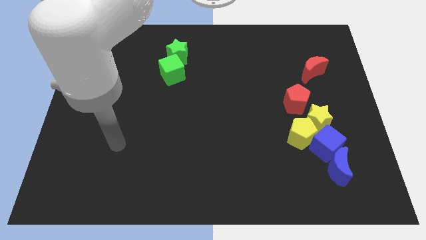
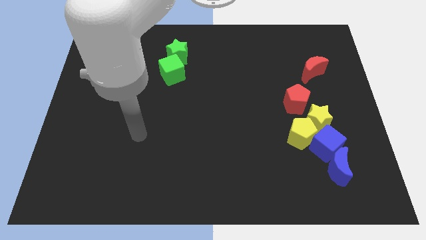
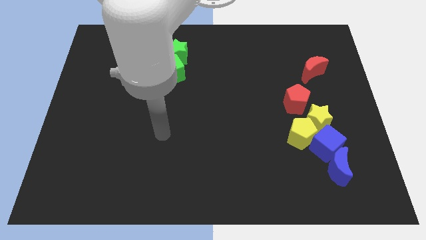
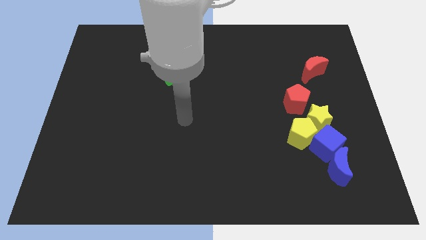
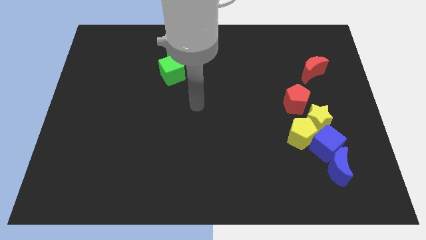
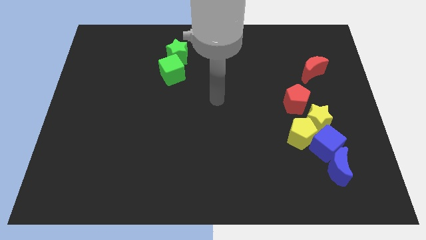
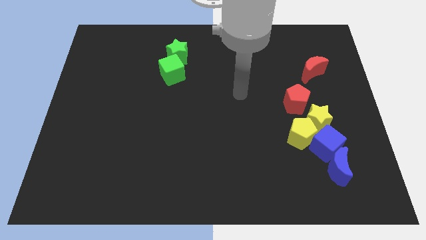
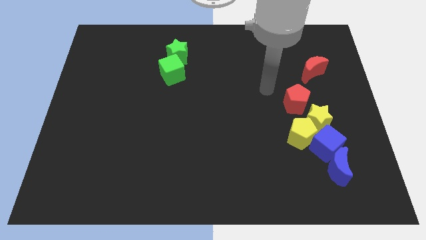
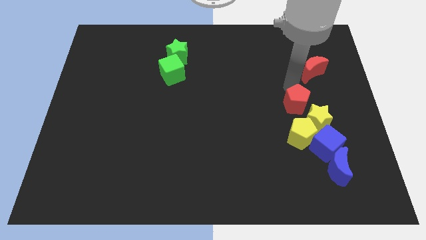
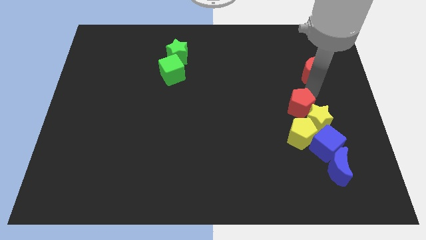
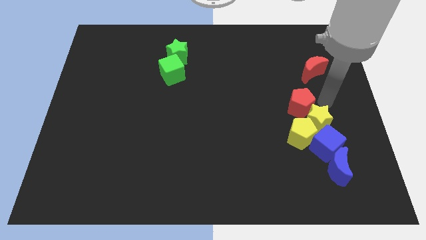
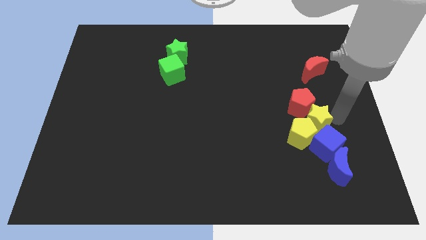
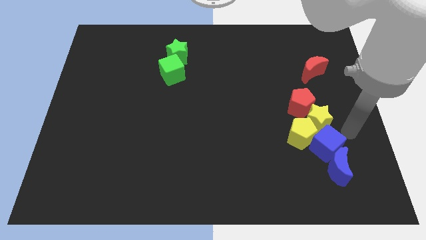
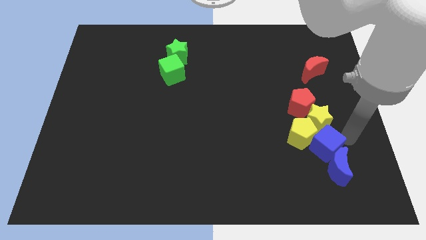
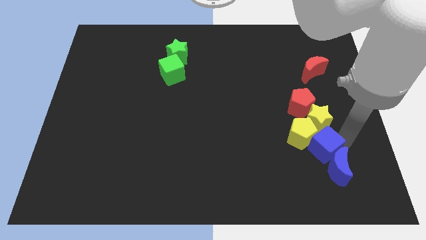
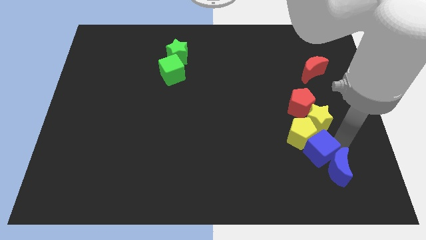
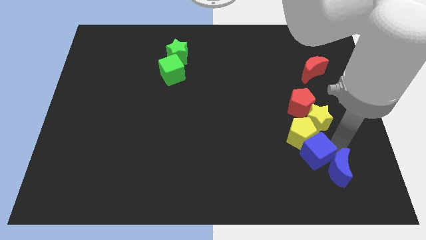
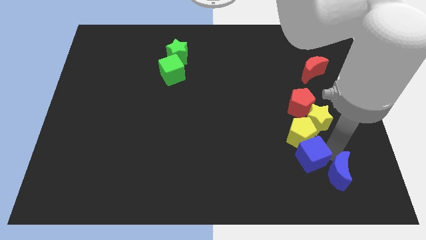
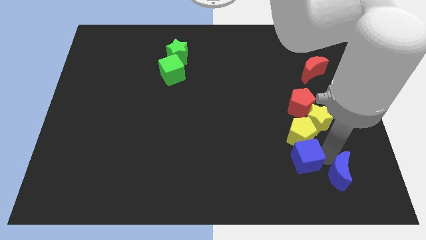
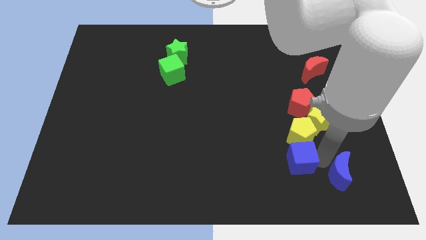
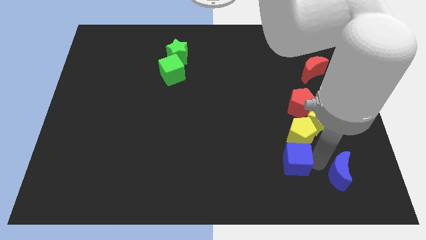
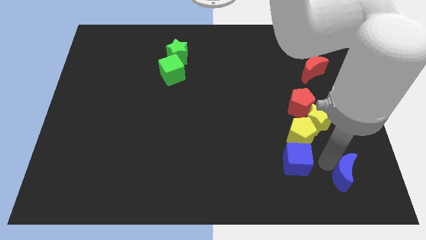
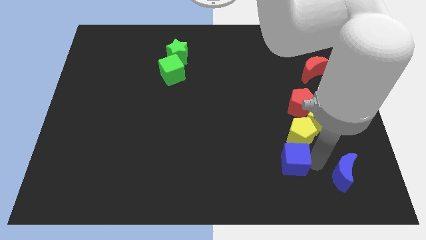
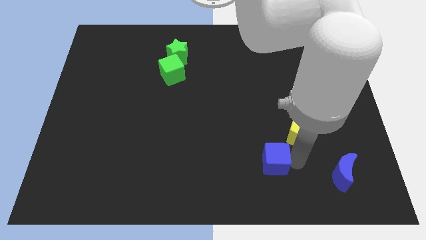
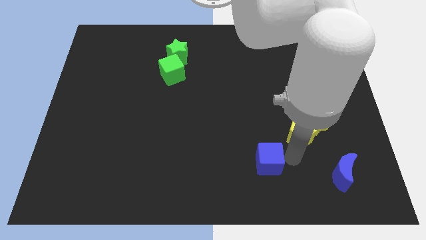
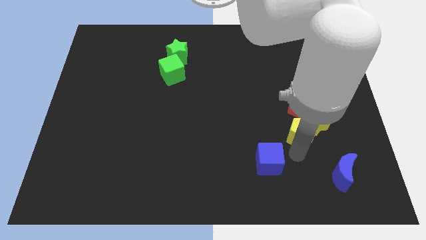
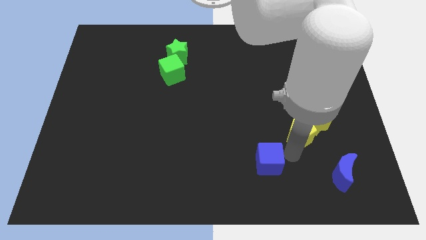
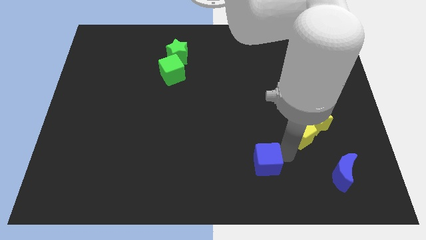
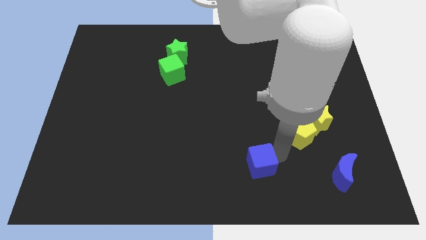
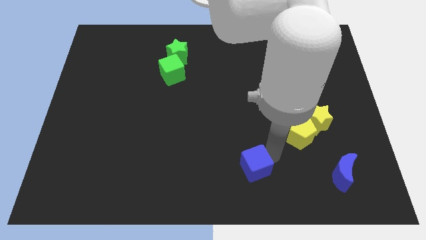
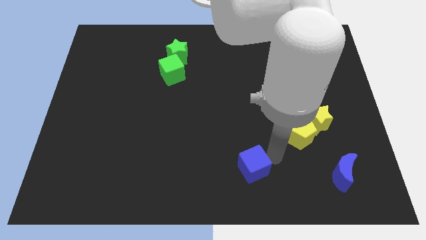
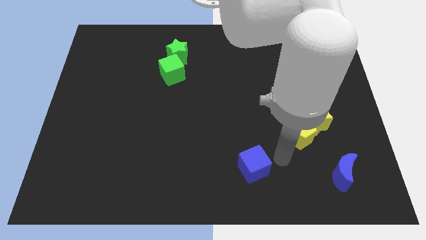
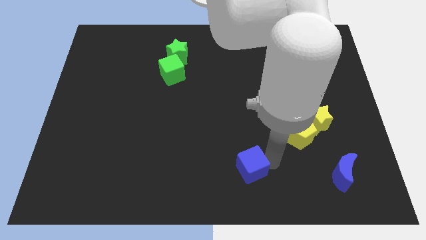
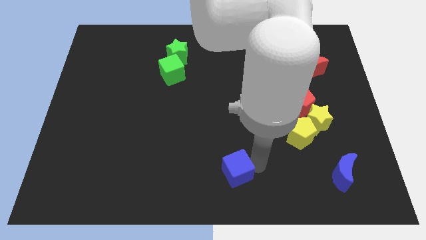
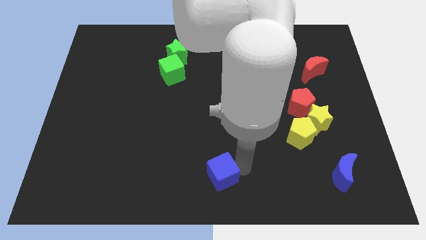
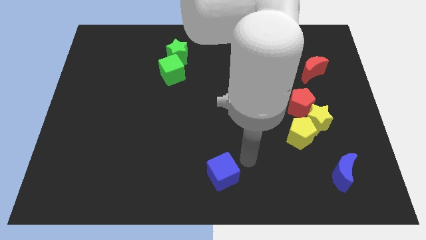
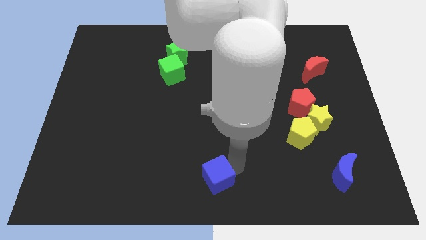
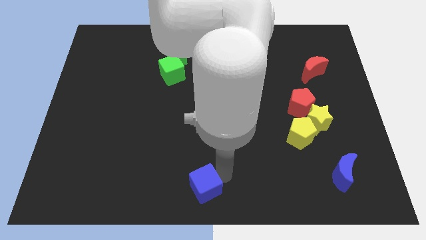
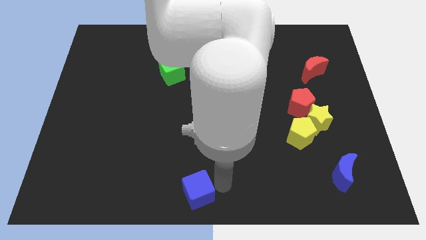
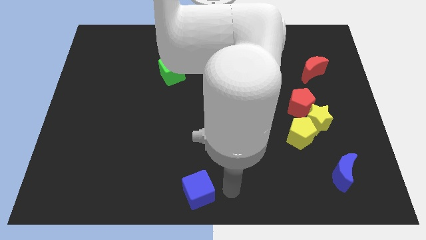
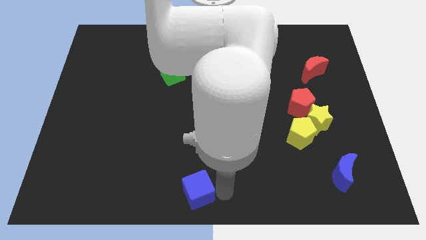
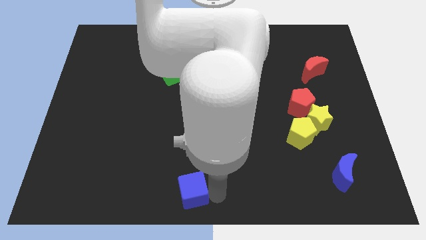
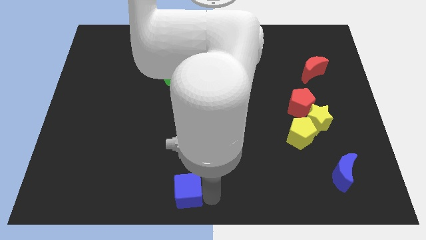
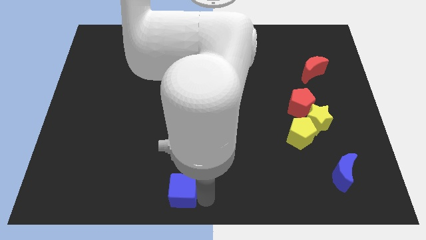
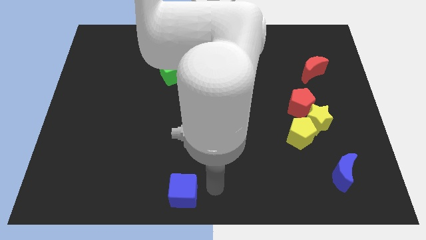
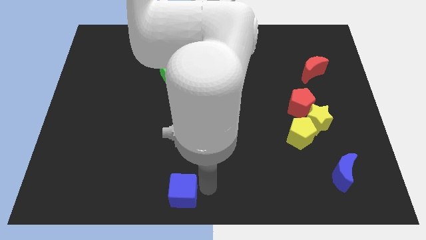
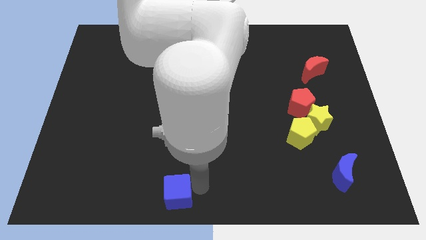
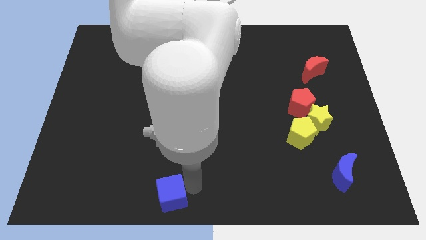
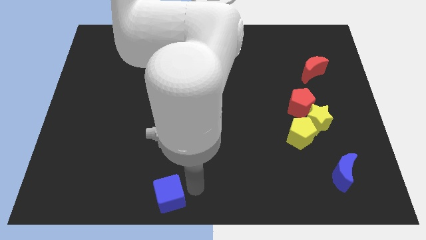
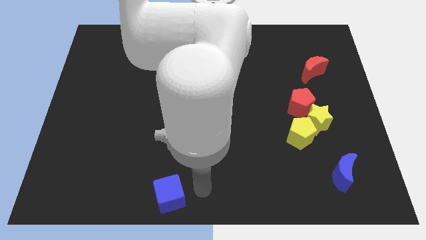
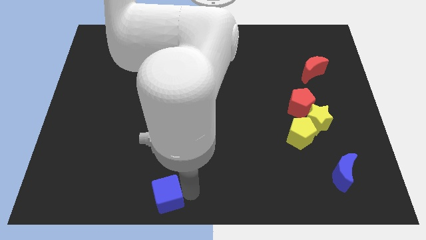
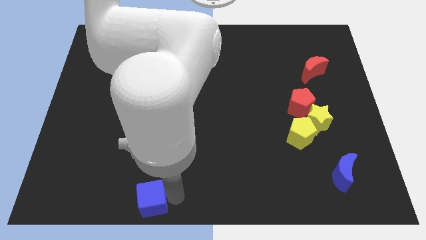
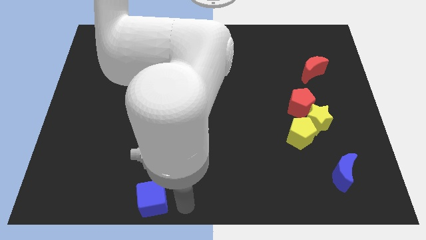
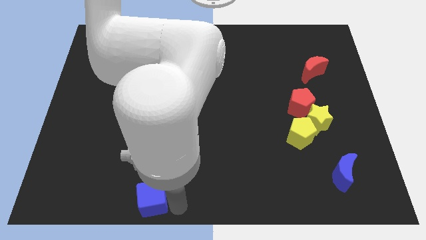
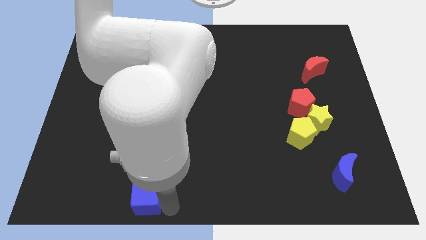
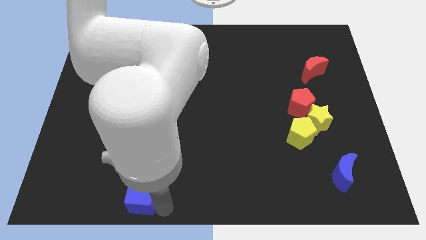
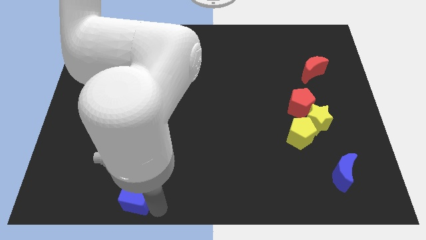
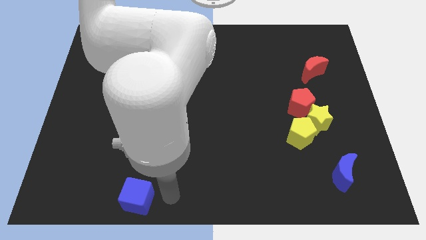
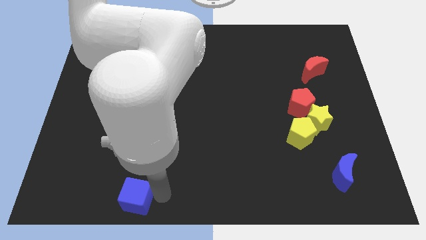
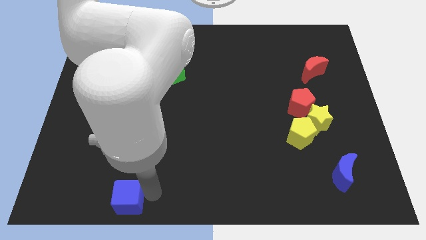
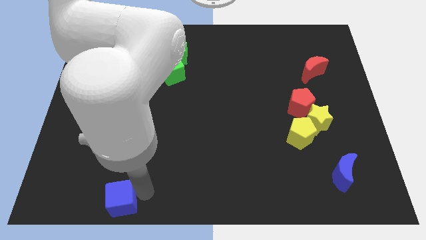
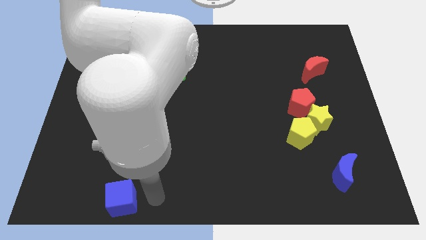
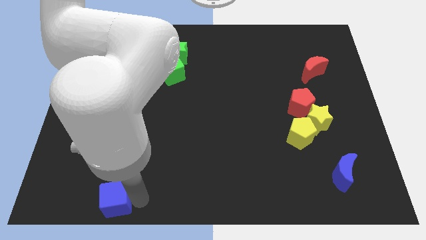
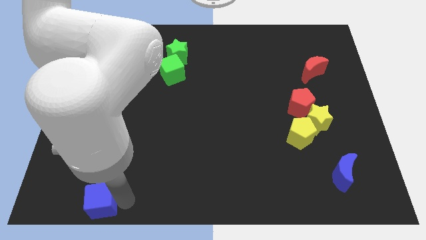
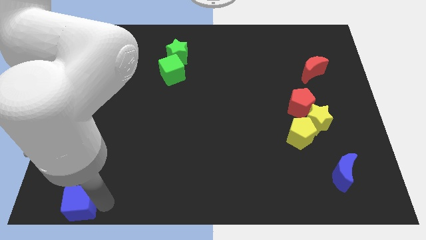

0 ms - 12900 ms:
push the blue cube to the bottom left of the board
